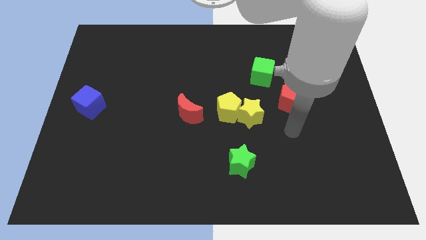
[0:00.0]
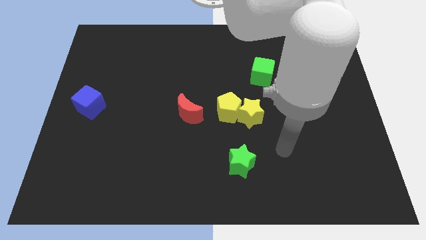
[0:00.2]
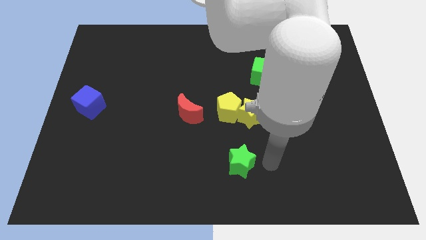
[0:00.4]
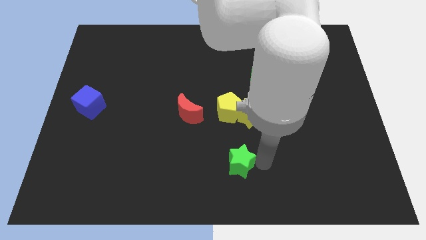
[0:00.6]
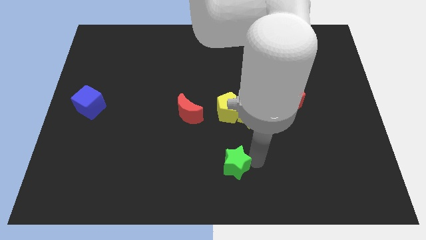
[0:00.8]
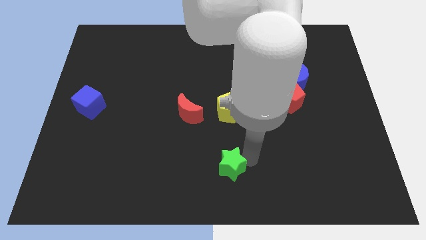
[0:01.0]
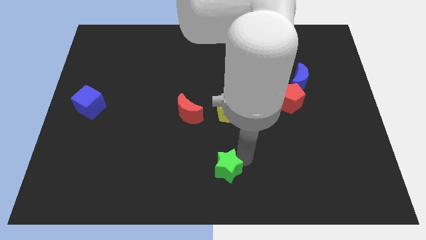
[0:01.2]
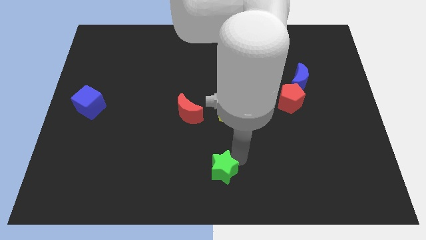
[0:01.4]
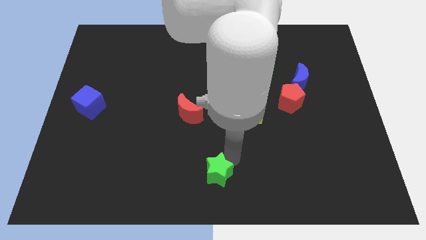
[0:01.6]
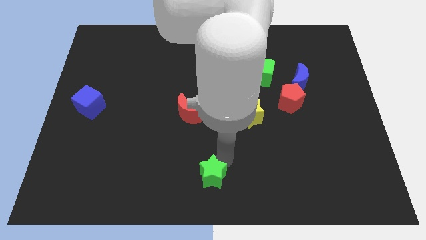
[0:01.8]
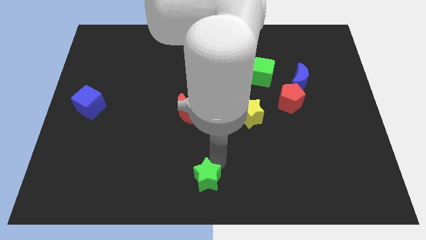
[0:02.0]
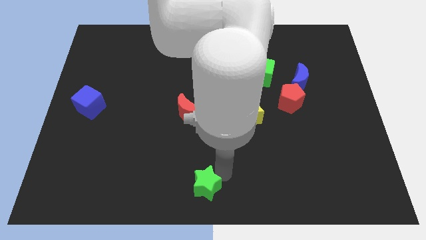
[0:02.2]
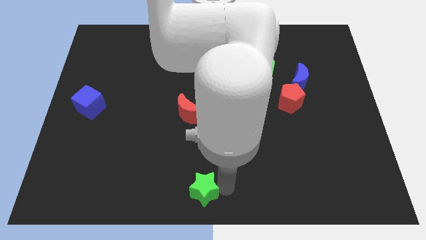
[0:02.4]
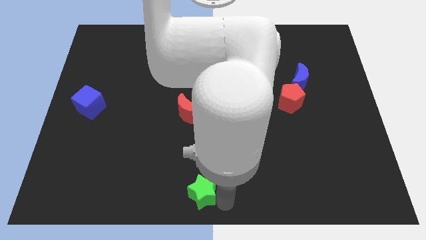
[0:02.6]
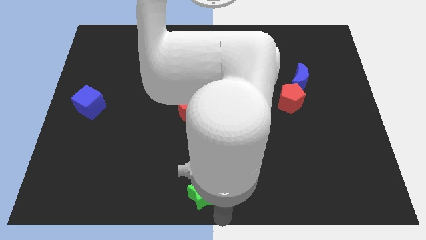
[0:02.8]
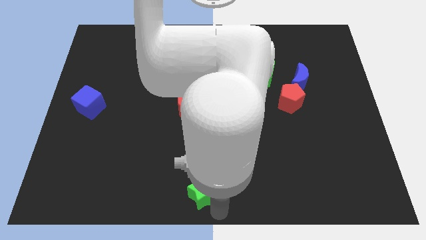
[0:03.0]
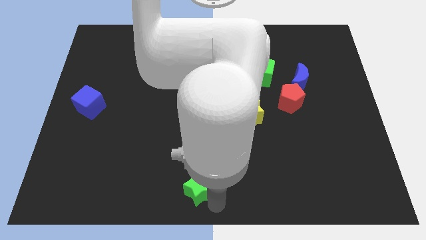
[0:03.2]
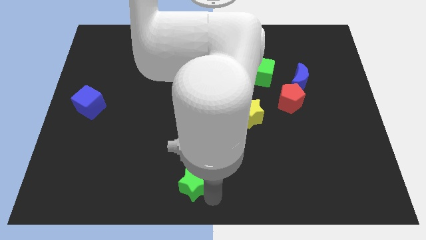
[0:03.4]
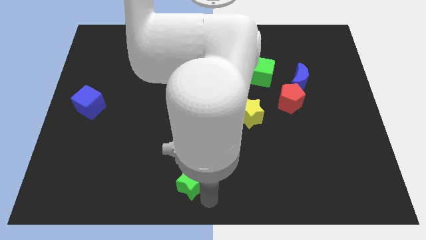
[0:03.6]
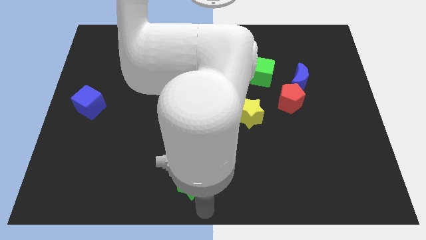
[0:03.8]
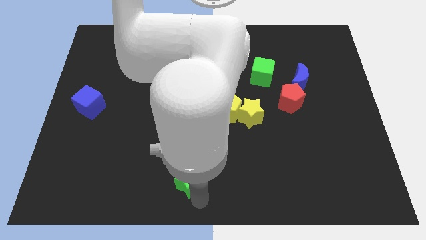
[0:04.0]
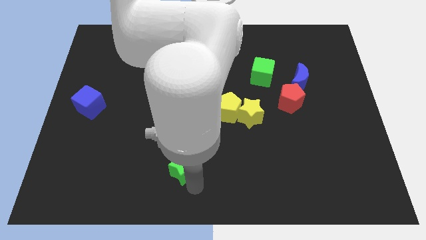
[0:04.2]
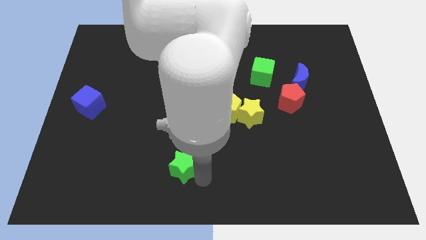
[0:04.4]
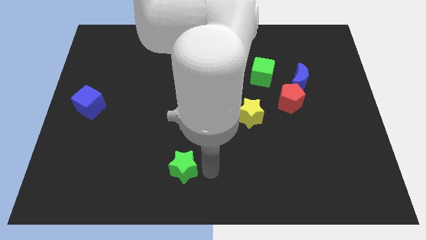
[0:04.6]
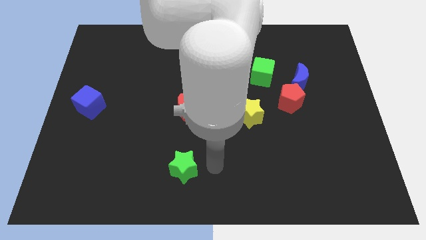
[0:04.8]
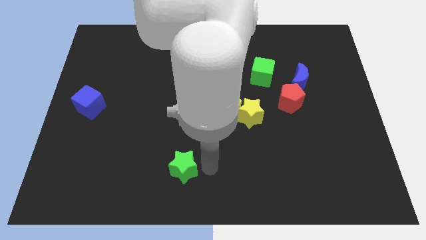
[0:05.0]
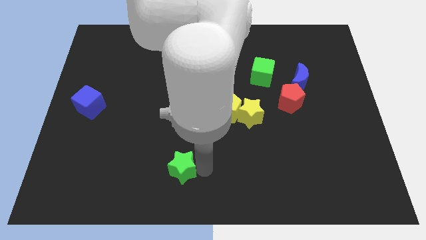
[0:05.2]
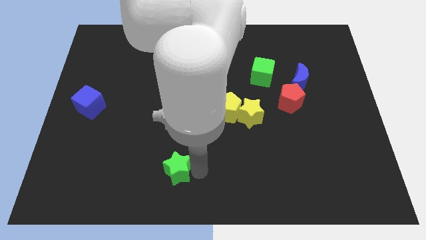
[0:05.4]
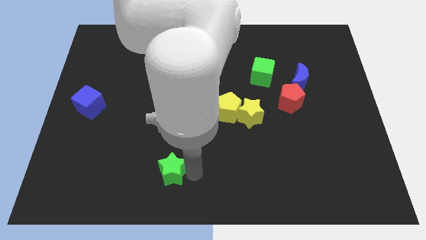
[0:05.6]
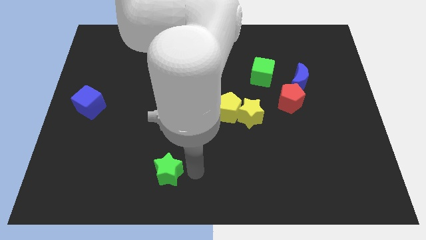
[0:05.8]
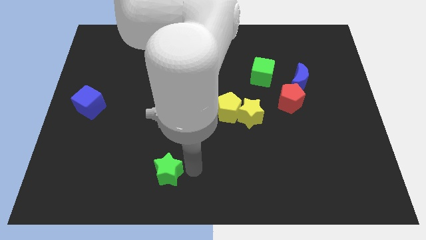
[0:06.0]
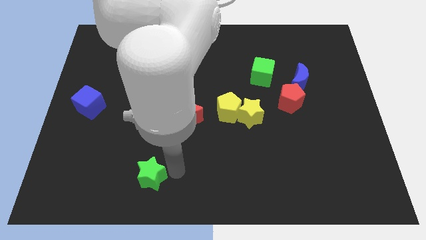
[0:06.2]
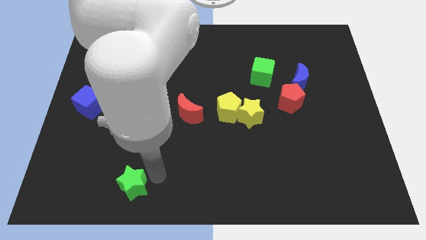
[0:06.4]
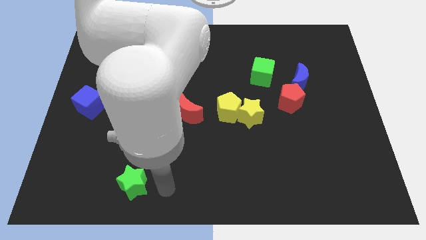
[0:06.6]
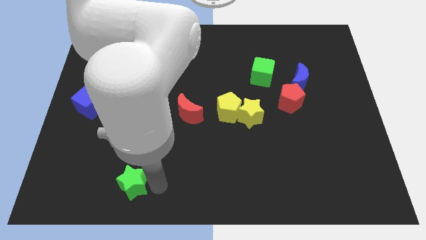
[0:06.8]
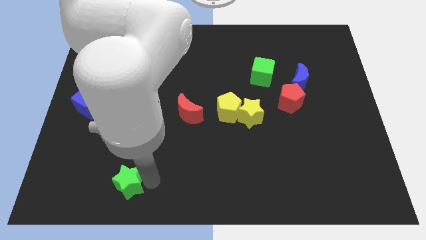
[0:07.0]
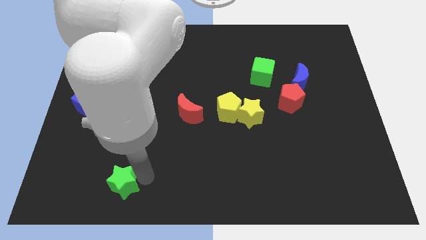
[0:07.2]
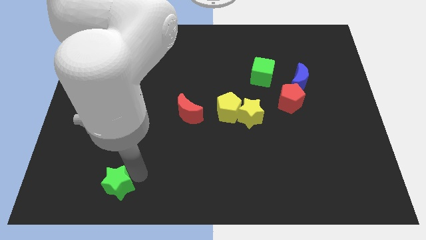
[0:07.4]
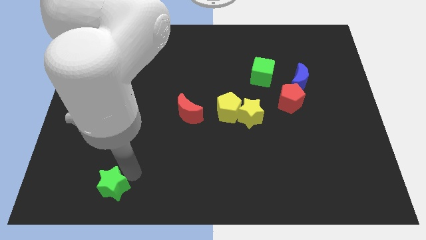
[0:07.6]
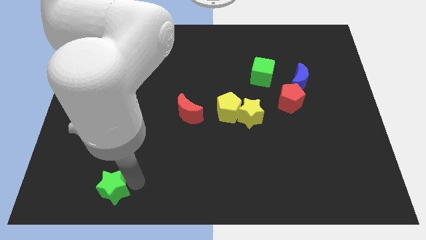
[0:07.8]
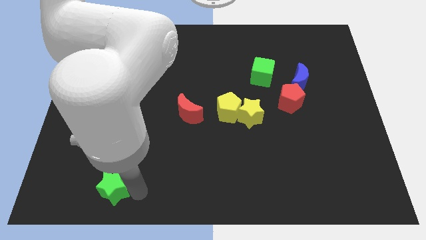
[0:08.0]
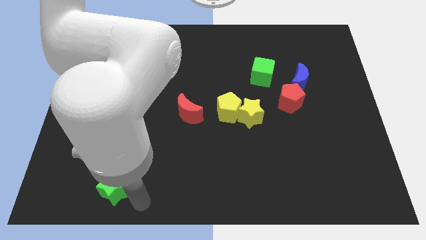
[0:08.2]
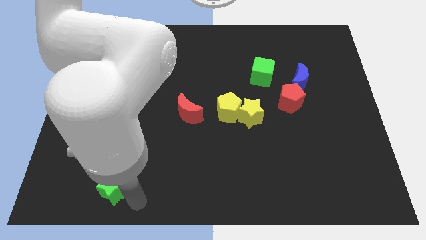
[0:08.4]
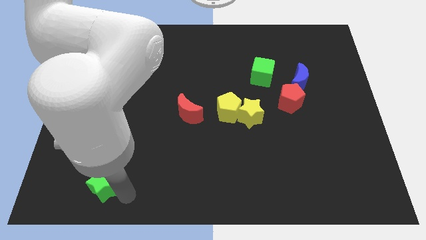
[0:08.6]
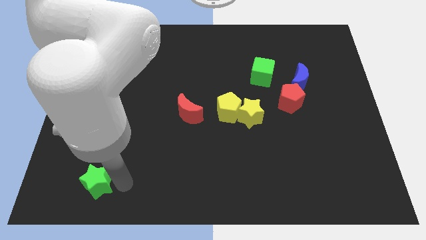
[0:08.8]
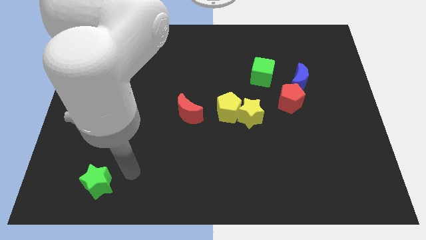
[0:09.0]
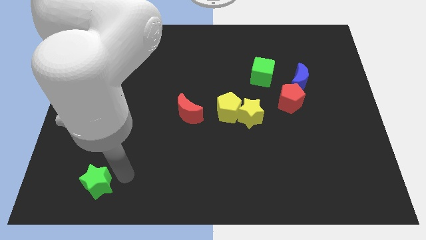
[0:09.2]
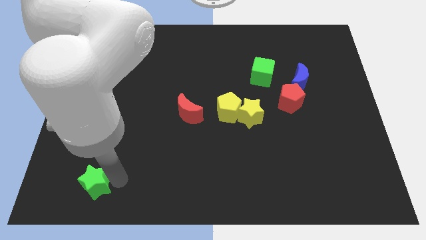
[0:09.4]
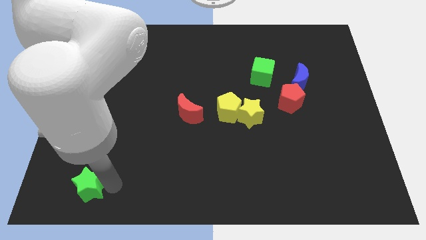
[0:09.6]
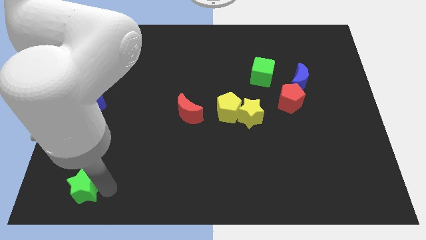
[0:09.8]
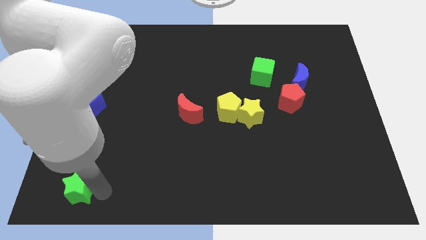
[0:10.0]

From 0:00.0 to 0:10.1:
put the green star to the bottom left corner

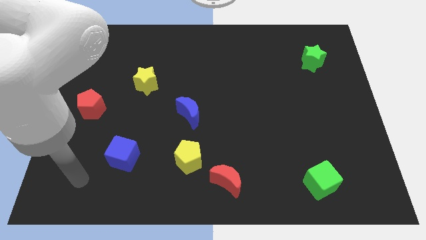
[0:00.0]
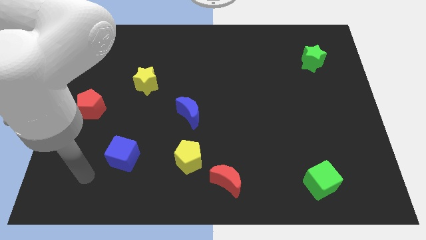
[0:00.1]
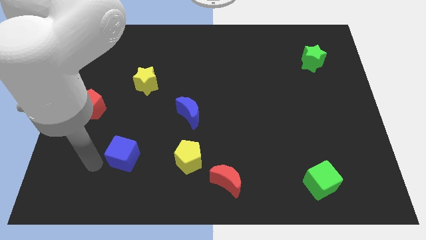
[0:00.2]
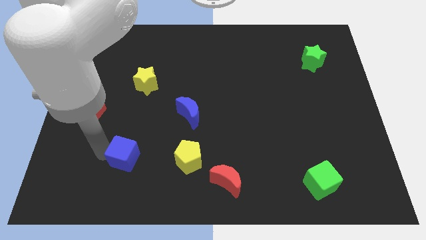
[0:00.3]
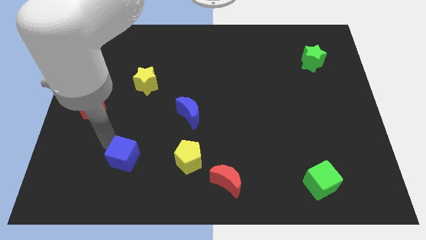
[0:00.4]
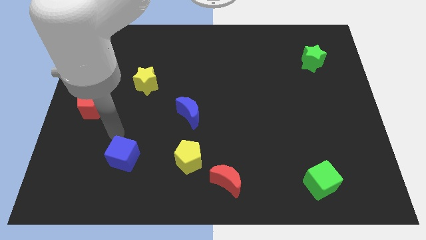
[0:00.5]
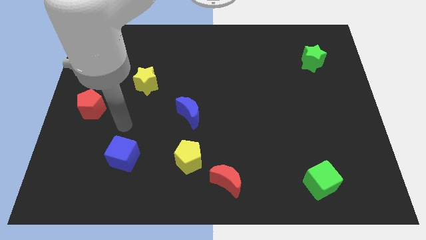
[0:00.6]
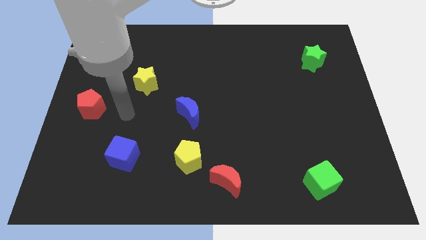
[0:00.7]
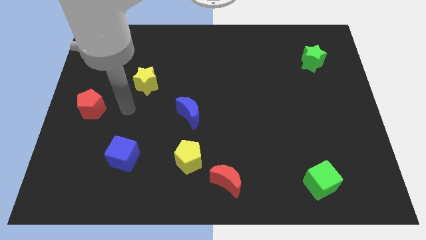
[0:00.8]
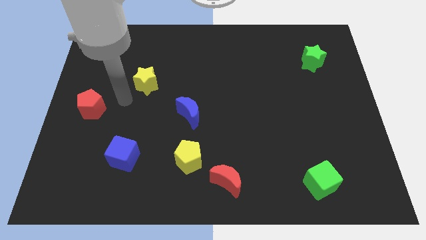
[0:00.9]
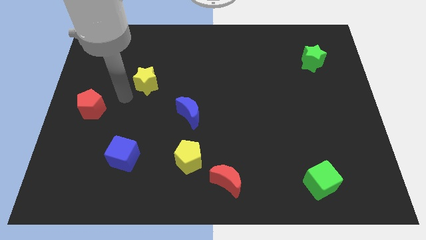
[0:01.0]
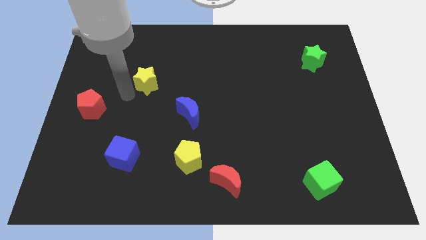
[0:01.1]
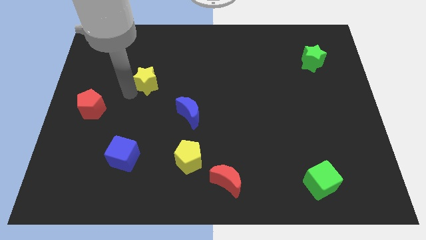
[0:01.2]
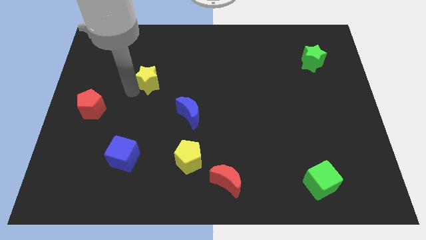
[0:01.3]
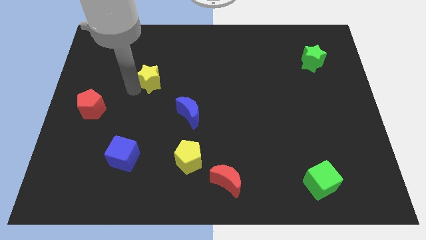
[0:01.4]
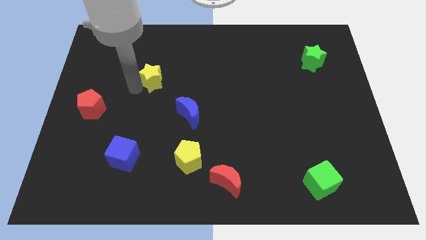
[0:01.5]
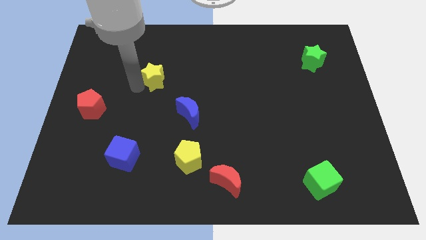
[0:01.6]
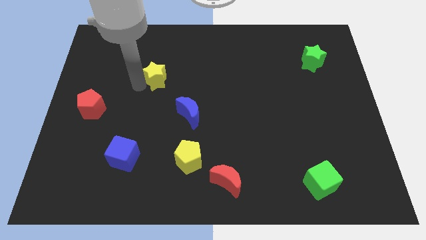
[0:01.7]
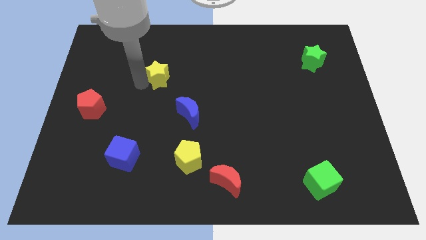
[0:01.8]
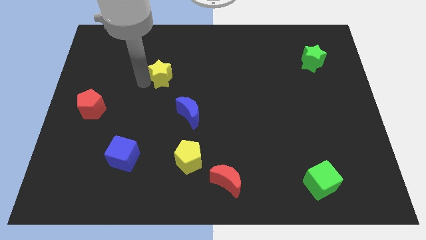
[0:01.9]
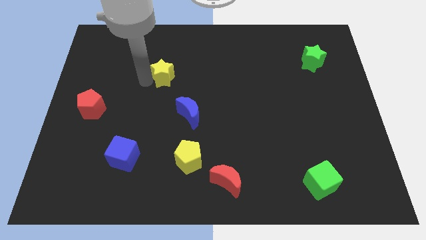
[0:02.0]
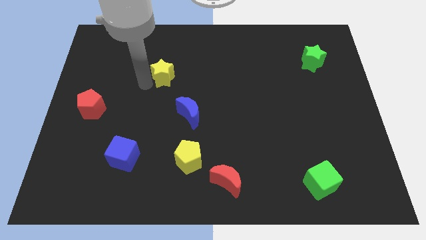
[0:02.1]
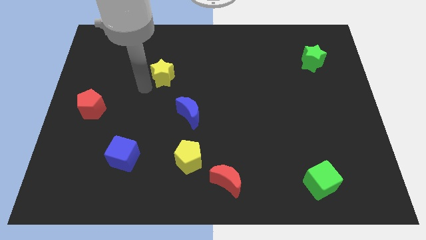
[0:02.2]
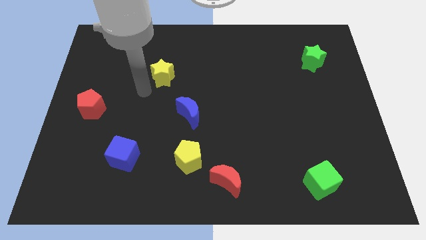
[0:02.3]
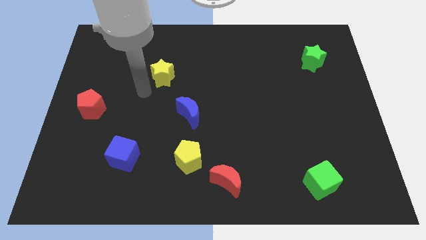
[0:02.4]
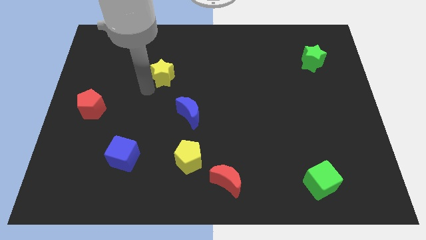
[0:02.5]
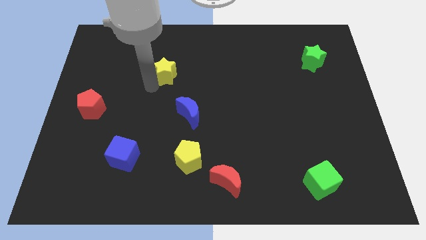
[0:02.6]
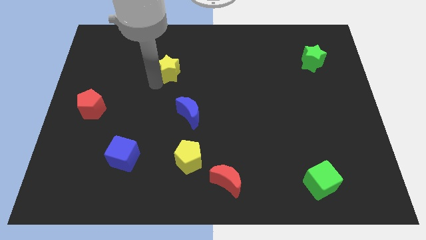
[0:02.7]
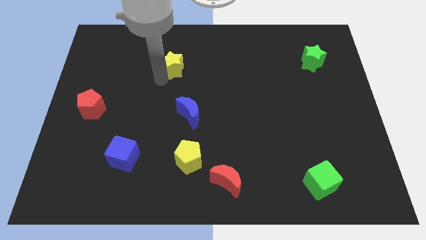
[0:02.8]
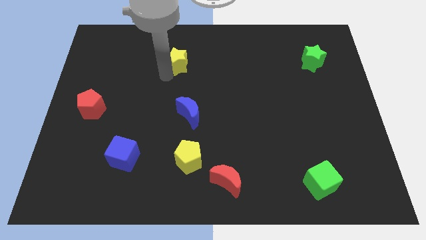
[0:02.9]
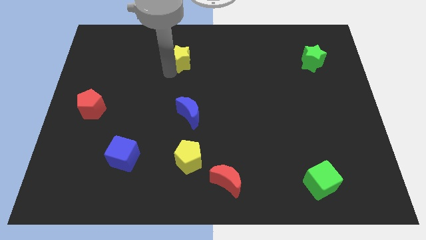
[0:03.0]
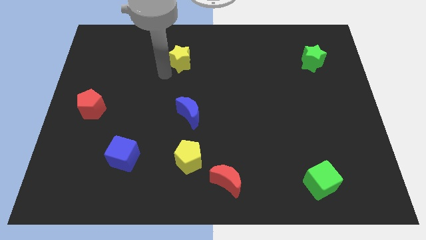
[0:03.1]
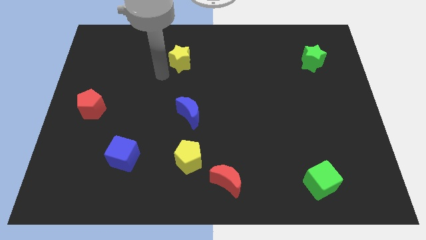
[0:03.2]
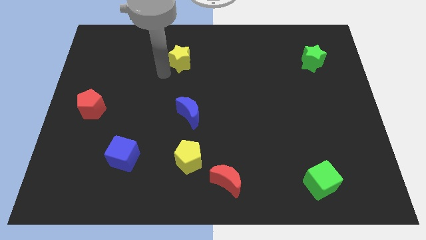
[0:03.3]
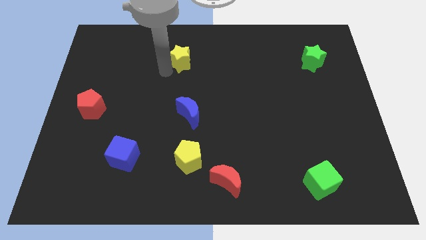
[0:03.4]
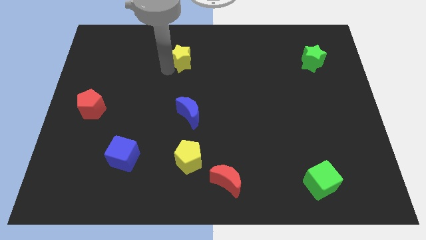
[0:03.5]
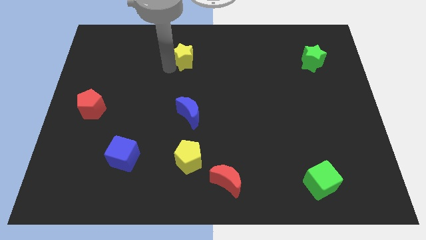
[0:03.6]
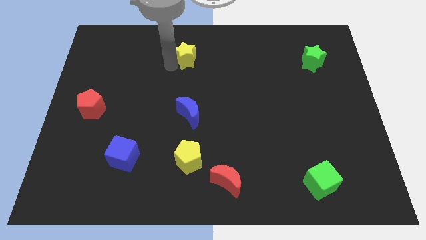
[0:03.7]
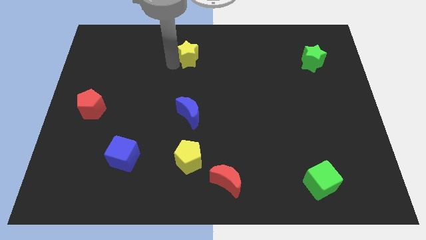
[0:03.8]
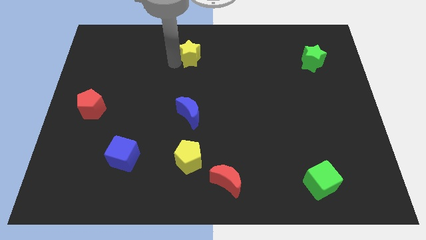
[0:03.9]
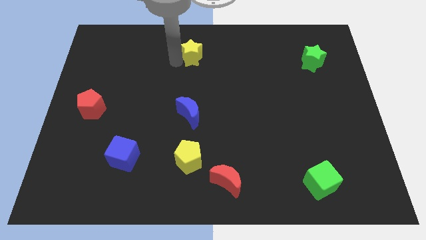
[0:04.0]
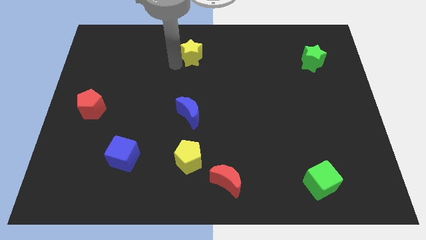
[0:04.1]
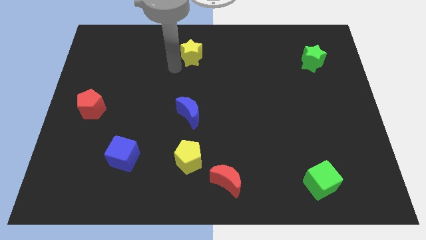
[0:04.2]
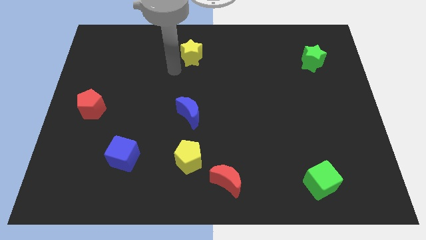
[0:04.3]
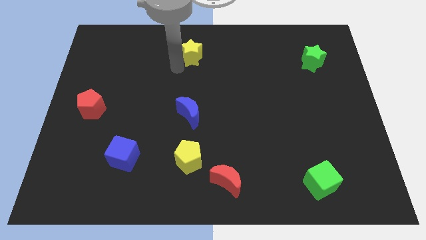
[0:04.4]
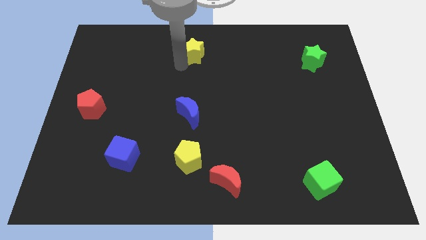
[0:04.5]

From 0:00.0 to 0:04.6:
push the yellow star to the towards your base
